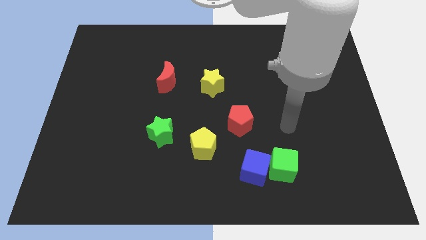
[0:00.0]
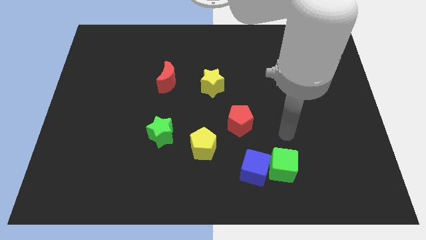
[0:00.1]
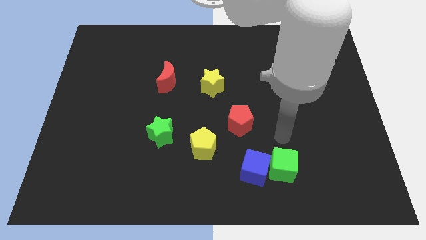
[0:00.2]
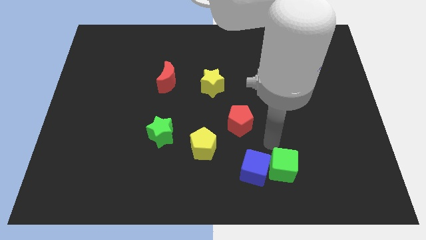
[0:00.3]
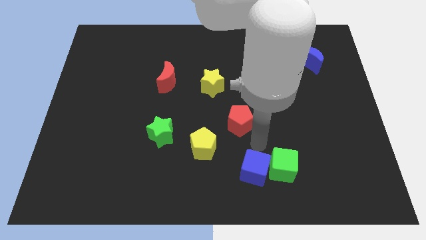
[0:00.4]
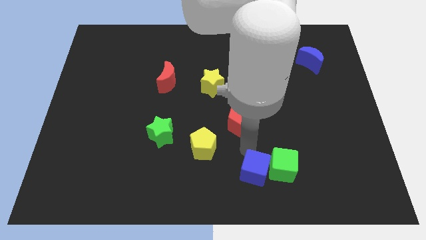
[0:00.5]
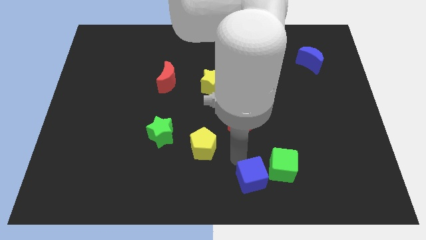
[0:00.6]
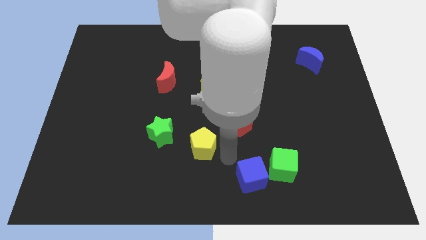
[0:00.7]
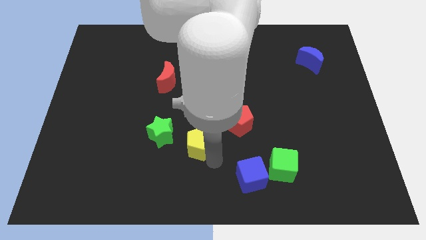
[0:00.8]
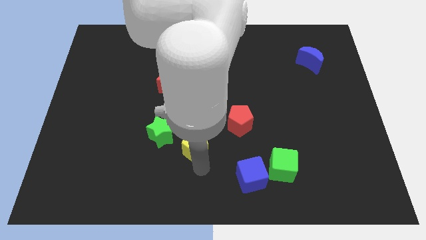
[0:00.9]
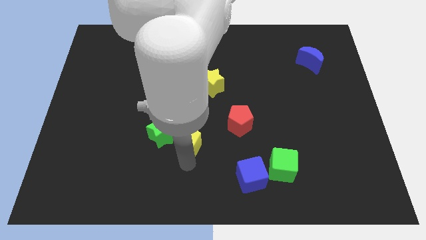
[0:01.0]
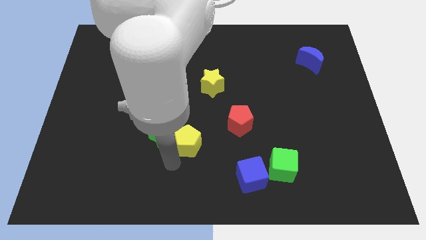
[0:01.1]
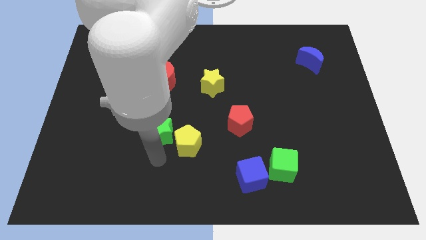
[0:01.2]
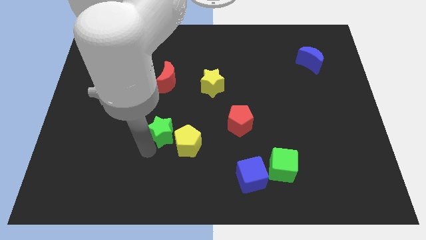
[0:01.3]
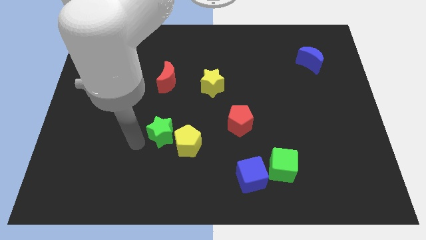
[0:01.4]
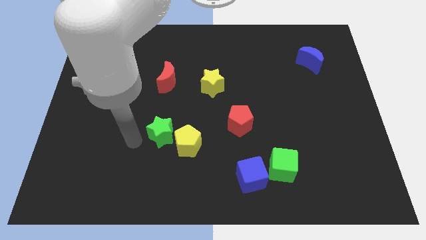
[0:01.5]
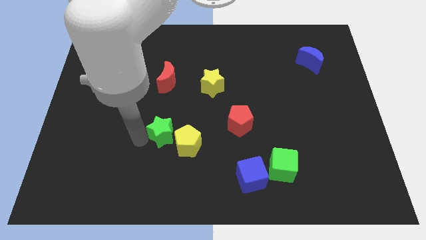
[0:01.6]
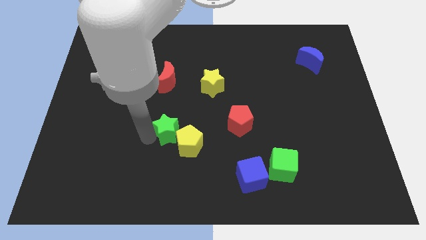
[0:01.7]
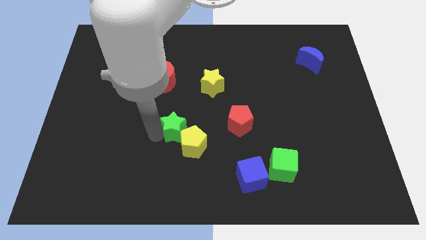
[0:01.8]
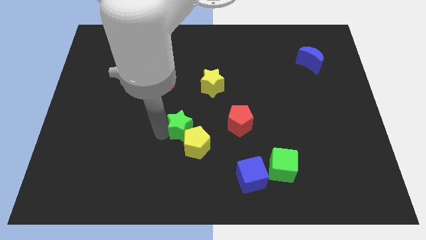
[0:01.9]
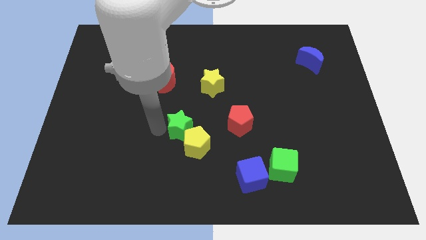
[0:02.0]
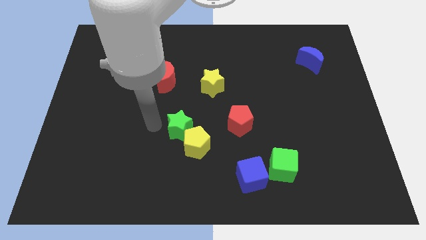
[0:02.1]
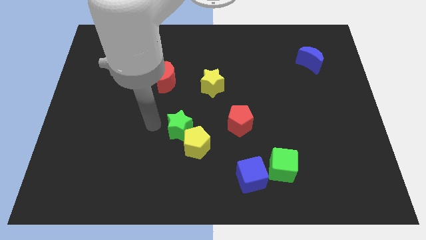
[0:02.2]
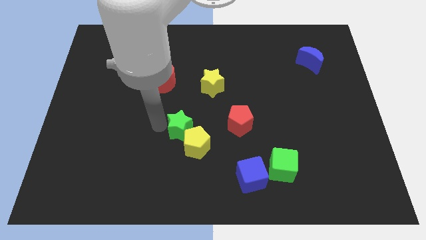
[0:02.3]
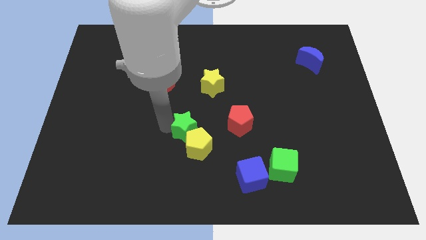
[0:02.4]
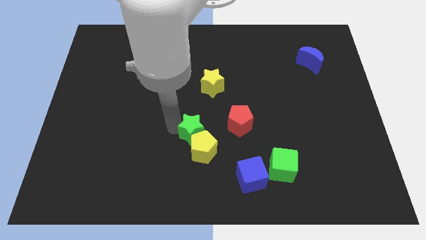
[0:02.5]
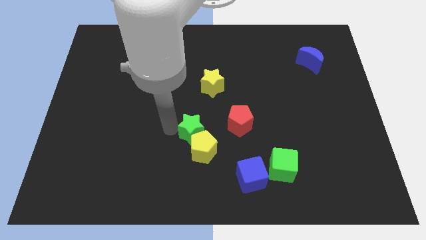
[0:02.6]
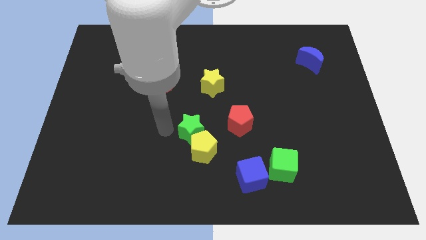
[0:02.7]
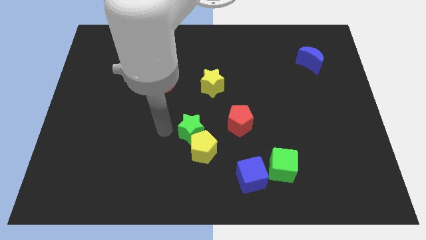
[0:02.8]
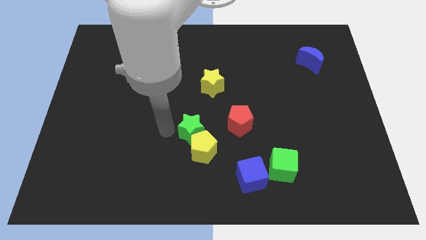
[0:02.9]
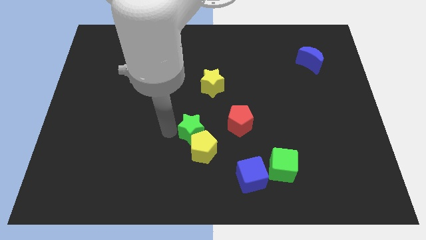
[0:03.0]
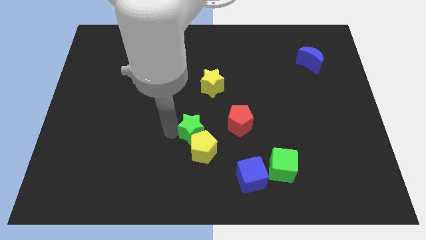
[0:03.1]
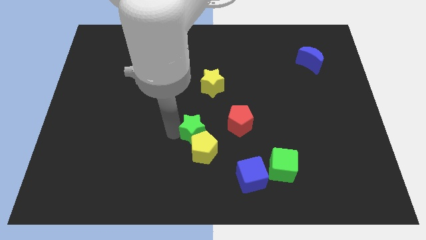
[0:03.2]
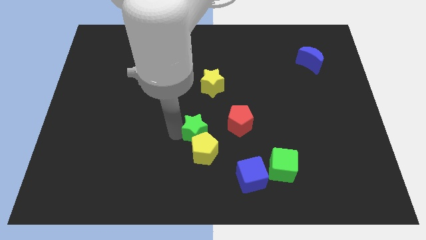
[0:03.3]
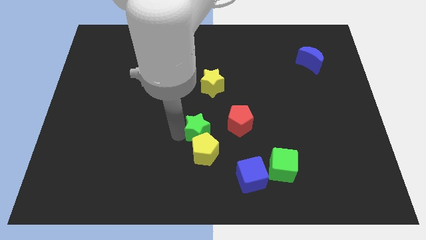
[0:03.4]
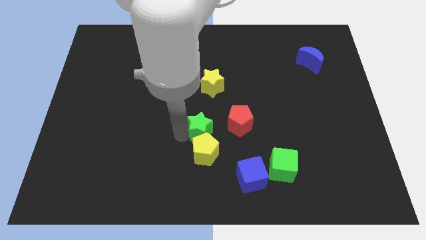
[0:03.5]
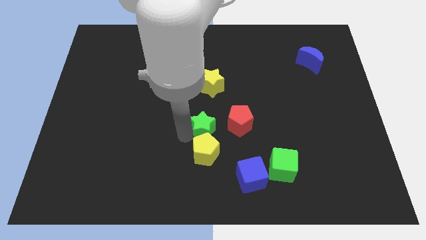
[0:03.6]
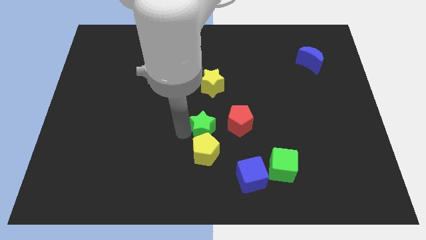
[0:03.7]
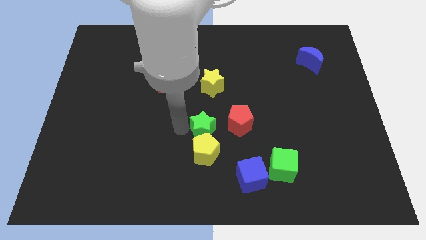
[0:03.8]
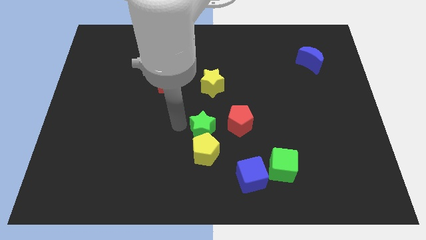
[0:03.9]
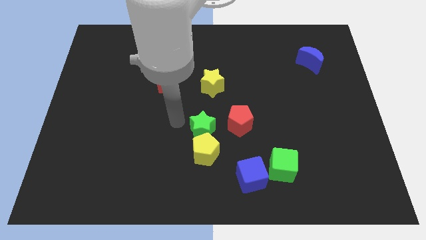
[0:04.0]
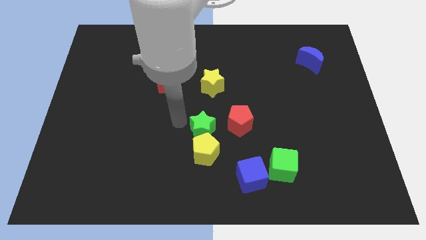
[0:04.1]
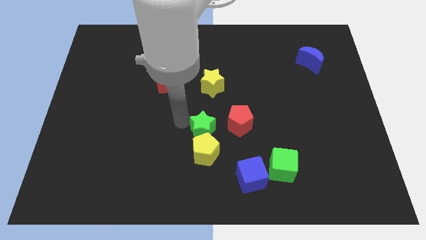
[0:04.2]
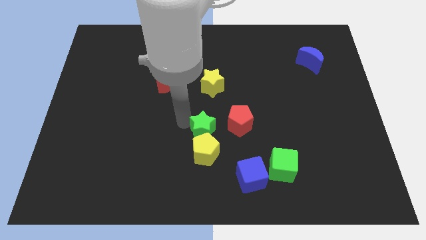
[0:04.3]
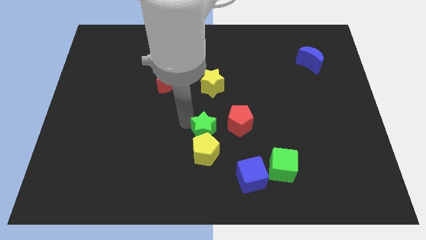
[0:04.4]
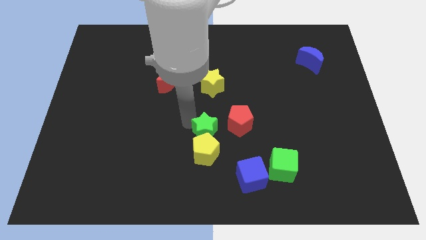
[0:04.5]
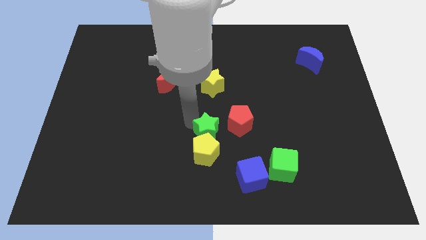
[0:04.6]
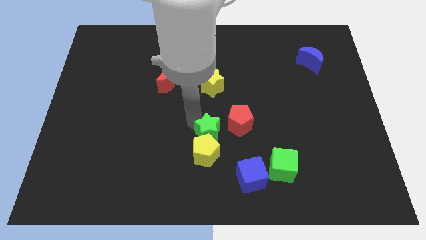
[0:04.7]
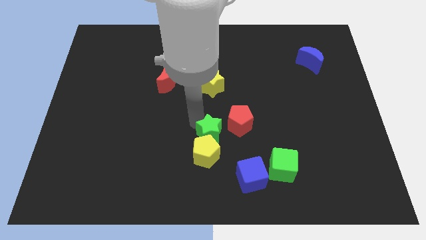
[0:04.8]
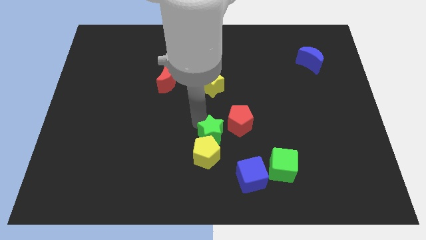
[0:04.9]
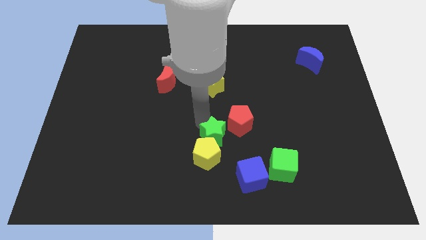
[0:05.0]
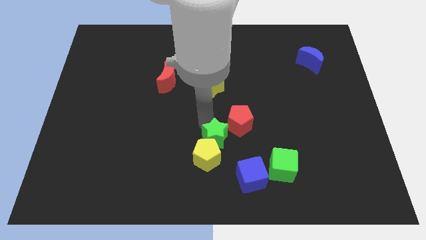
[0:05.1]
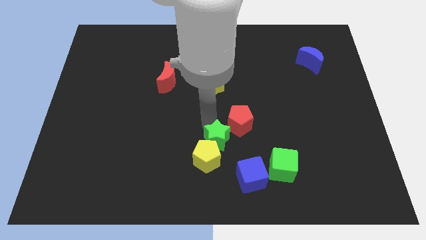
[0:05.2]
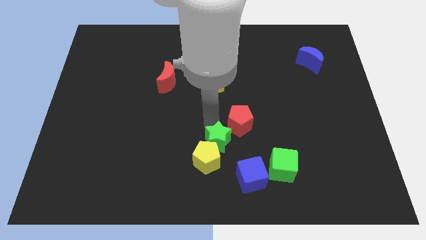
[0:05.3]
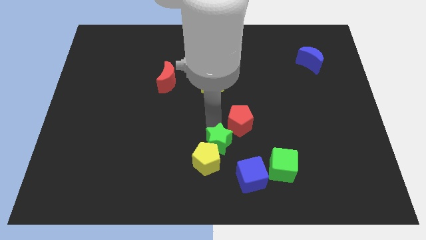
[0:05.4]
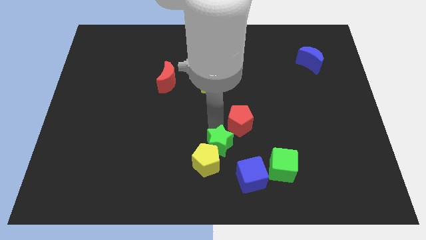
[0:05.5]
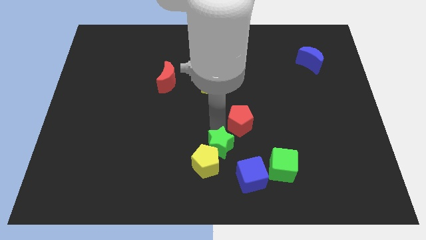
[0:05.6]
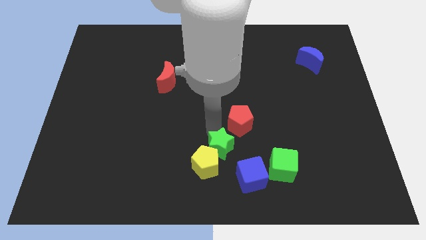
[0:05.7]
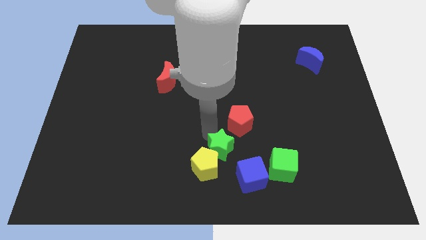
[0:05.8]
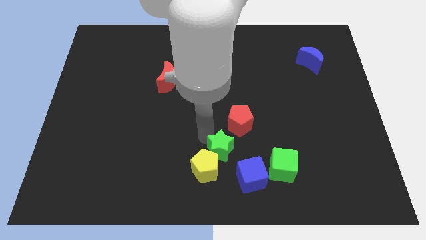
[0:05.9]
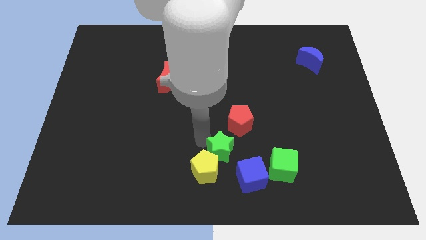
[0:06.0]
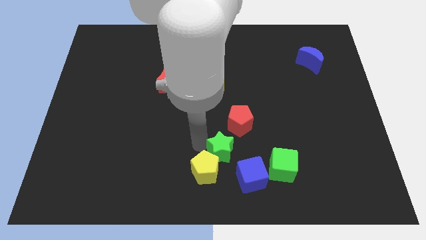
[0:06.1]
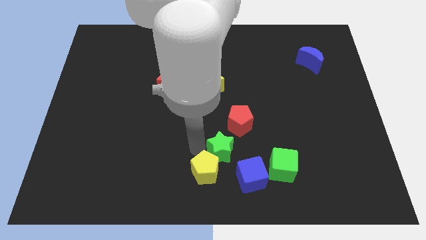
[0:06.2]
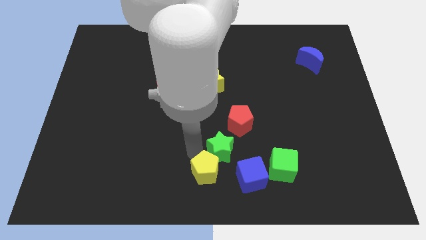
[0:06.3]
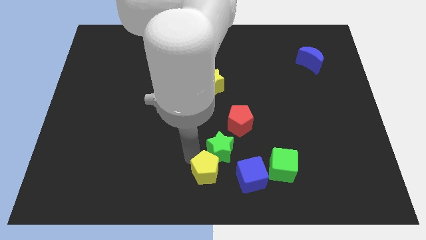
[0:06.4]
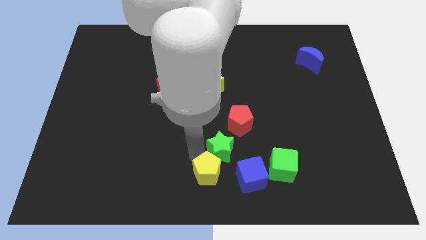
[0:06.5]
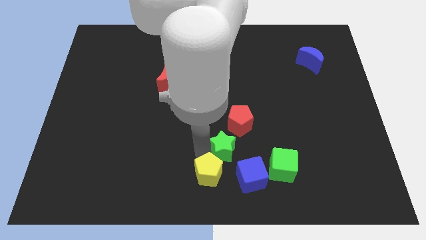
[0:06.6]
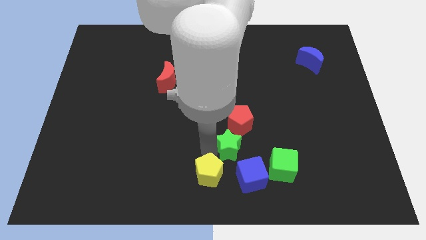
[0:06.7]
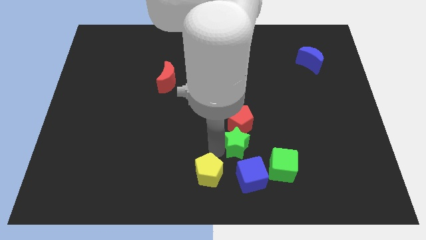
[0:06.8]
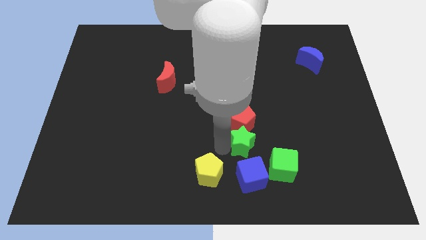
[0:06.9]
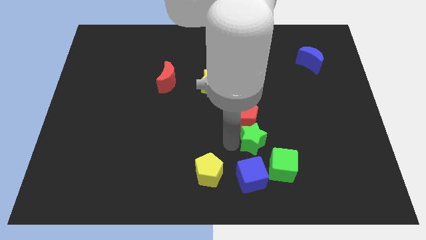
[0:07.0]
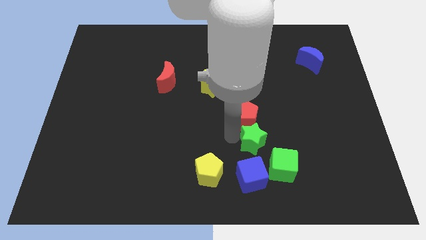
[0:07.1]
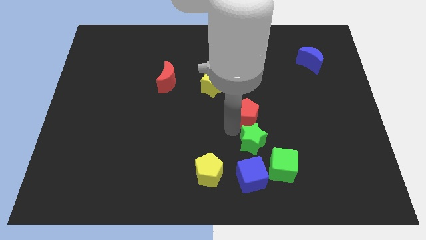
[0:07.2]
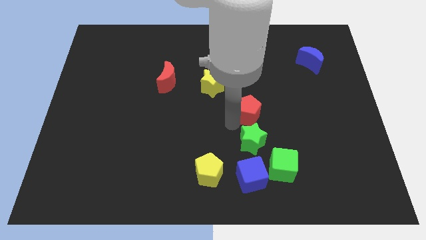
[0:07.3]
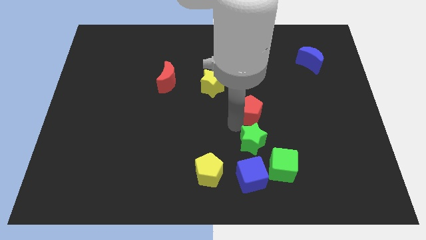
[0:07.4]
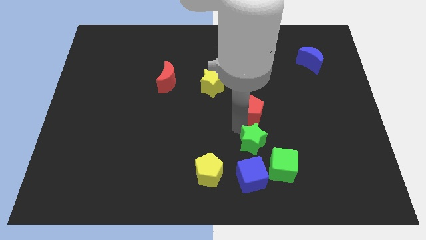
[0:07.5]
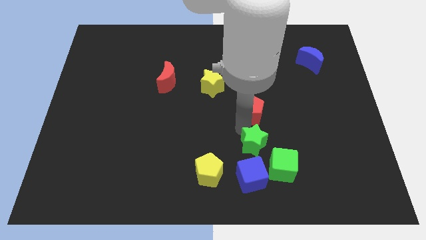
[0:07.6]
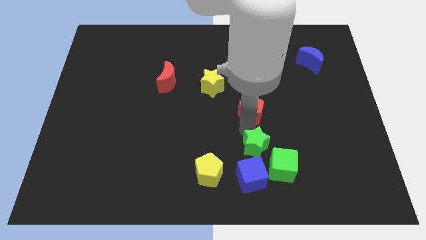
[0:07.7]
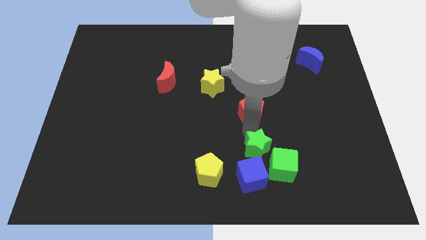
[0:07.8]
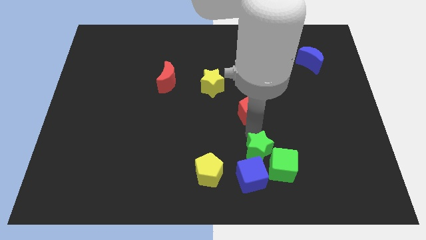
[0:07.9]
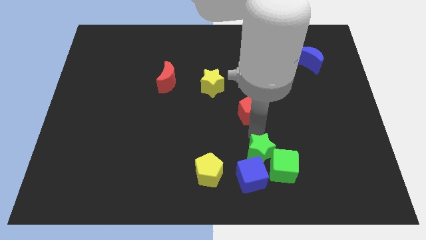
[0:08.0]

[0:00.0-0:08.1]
slide the green star towards the green cube
